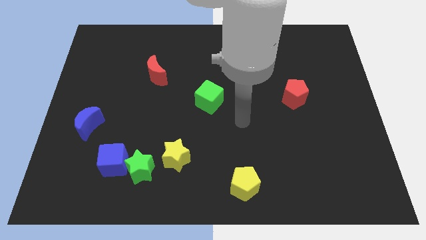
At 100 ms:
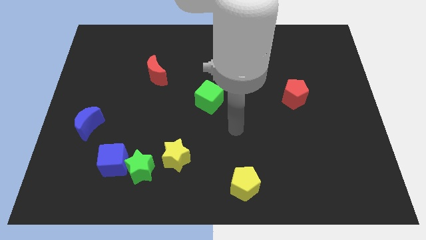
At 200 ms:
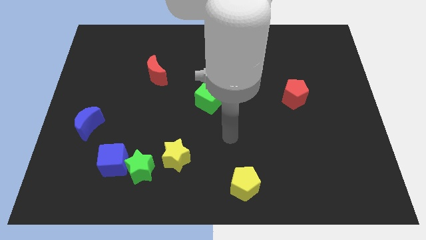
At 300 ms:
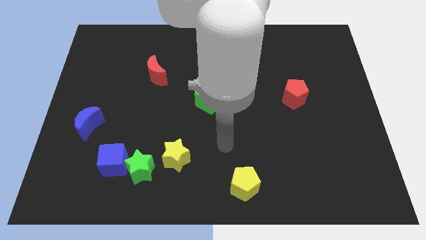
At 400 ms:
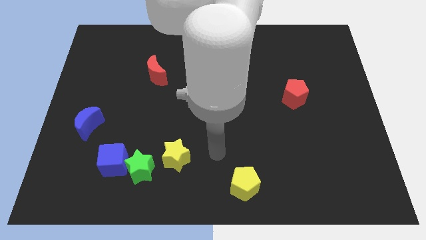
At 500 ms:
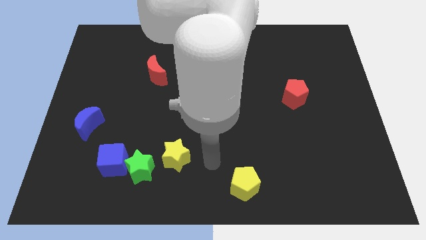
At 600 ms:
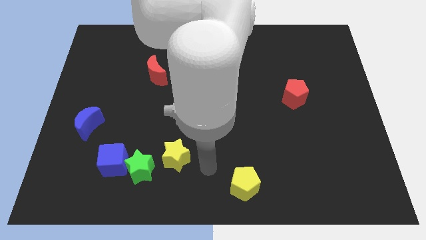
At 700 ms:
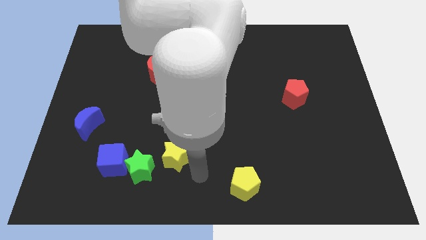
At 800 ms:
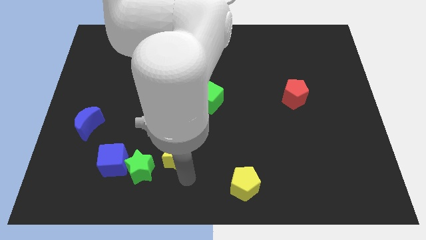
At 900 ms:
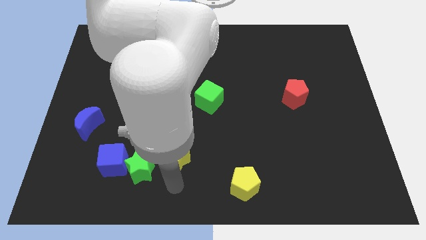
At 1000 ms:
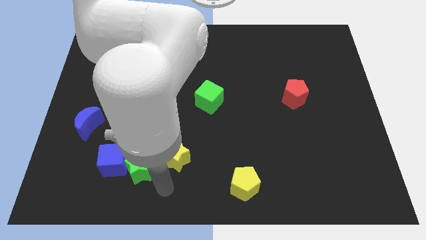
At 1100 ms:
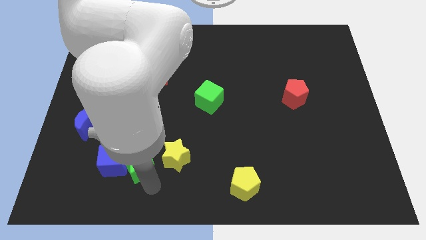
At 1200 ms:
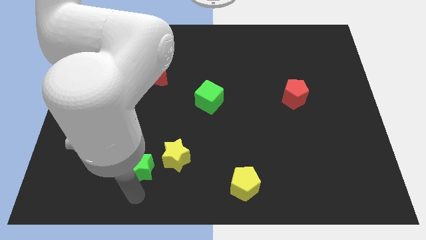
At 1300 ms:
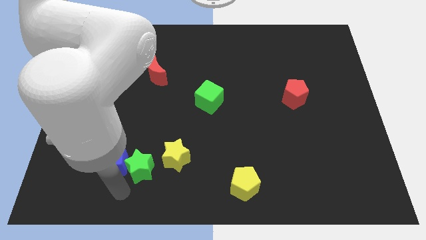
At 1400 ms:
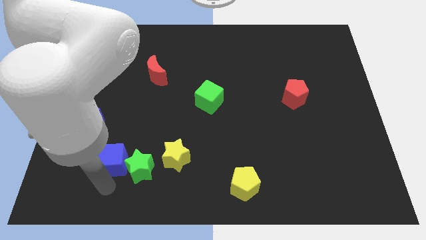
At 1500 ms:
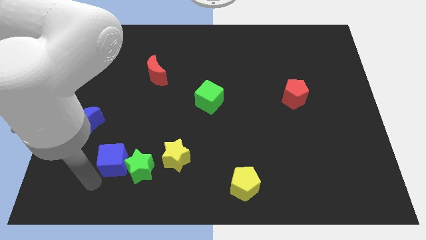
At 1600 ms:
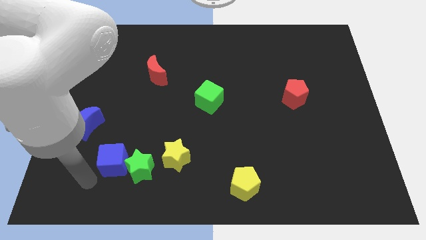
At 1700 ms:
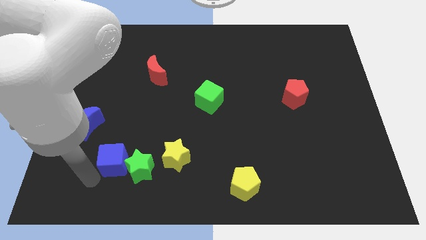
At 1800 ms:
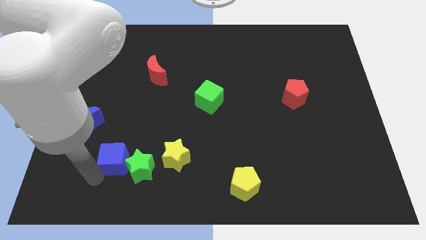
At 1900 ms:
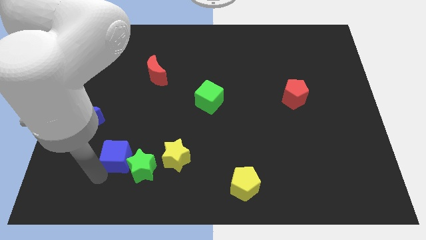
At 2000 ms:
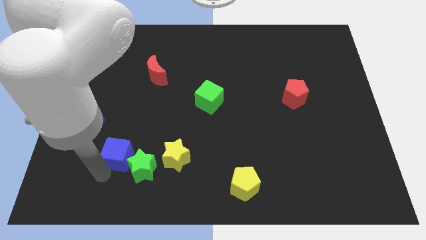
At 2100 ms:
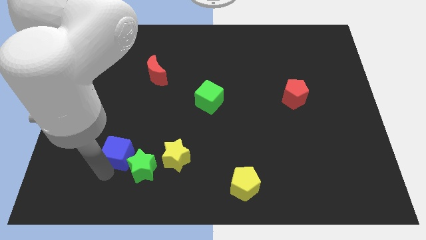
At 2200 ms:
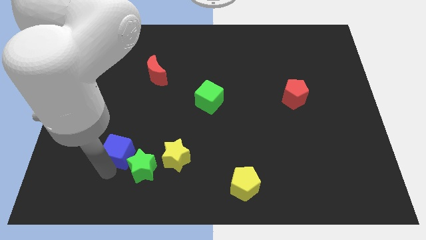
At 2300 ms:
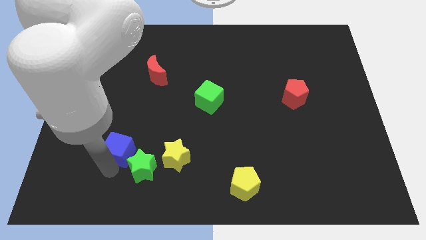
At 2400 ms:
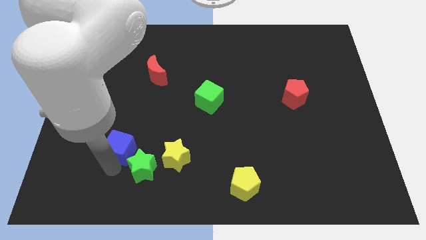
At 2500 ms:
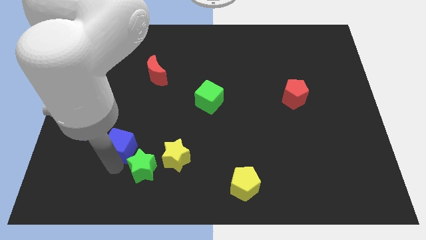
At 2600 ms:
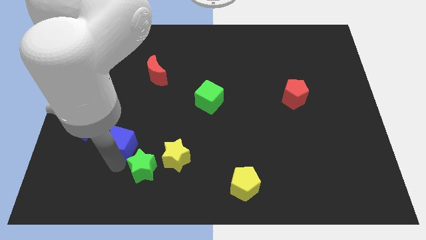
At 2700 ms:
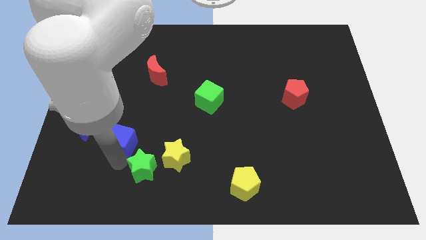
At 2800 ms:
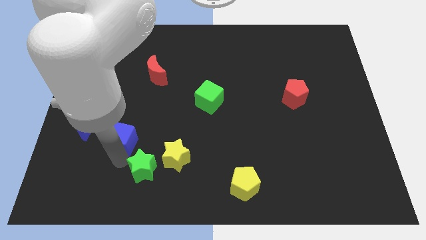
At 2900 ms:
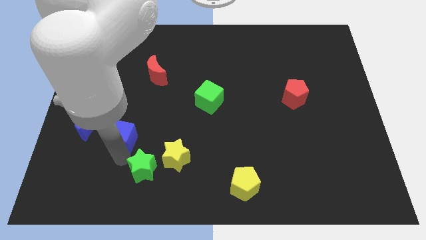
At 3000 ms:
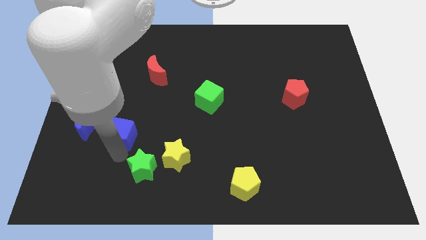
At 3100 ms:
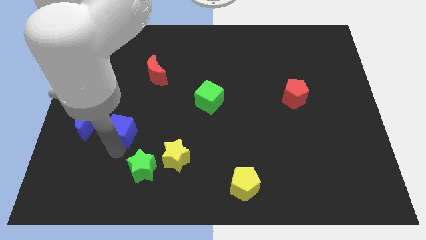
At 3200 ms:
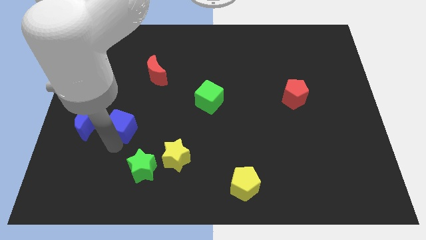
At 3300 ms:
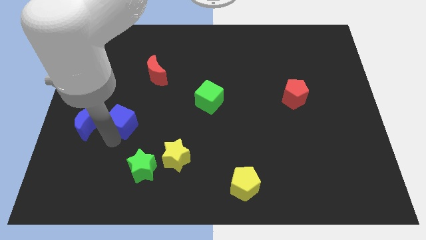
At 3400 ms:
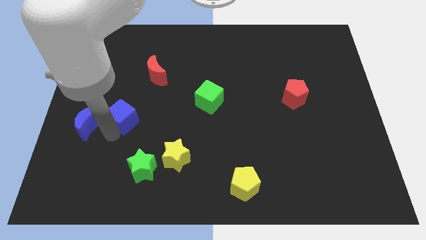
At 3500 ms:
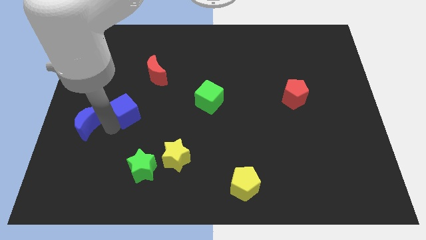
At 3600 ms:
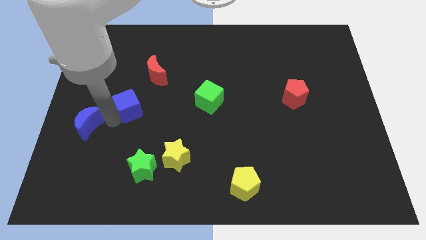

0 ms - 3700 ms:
slightly slide the blue cube diagonally up and right

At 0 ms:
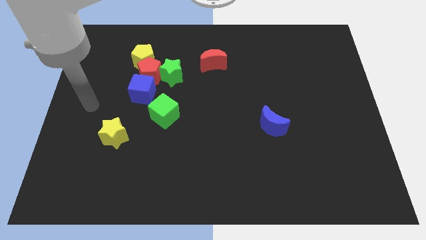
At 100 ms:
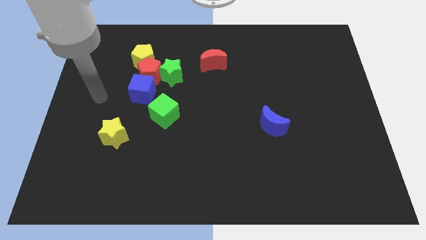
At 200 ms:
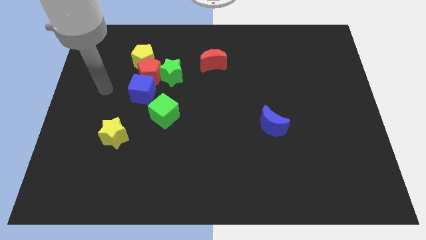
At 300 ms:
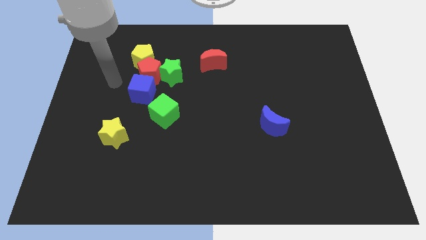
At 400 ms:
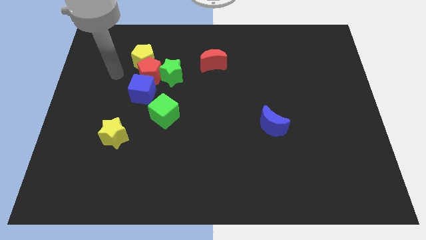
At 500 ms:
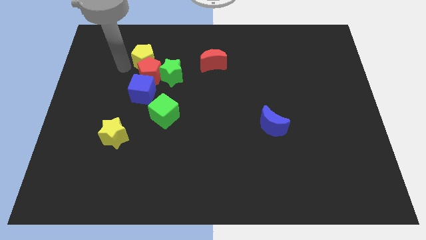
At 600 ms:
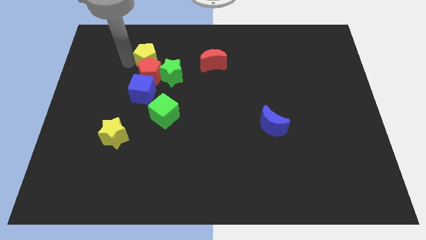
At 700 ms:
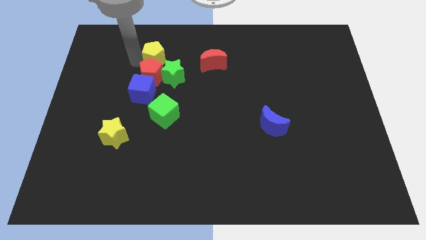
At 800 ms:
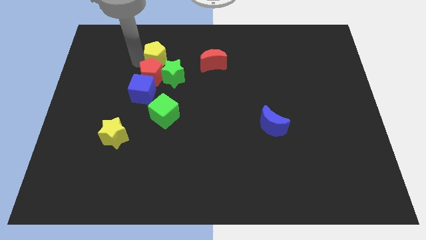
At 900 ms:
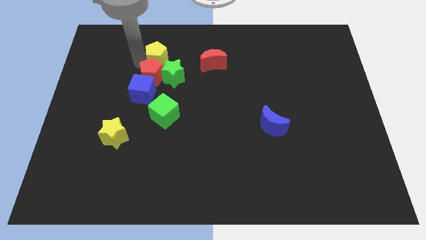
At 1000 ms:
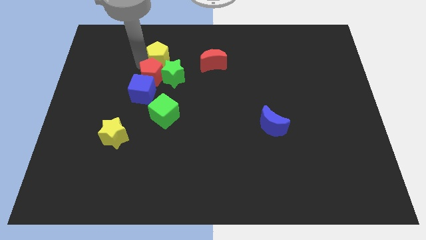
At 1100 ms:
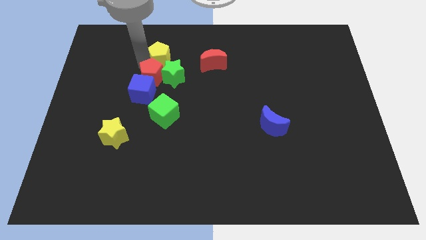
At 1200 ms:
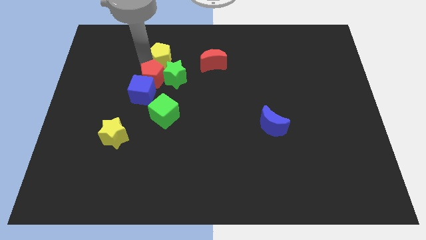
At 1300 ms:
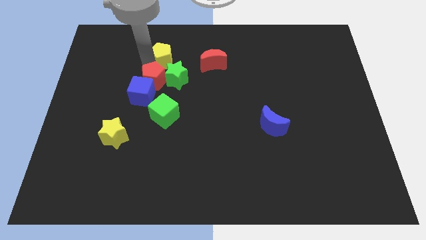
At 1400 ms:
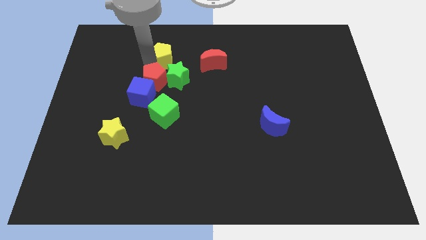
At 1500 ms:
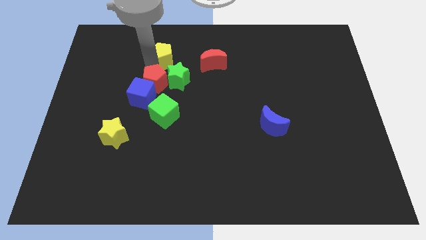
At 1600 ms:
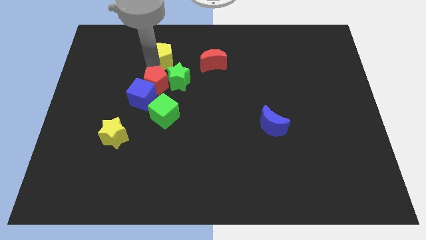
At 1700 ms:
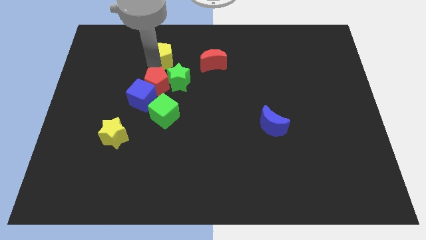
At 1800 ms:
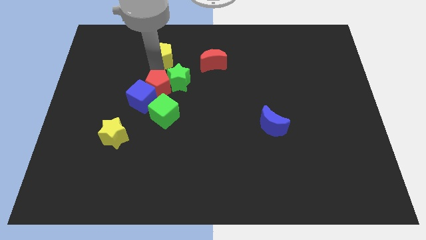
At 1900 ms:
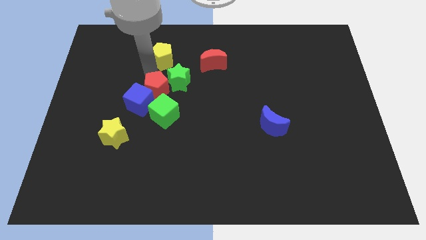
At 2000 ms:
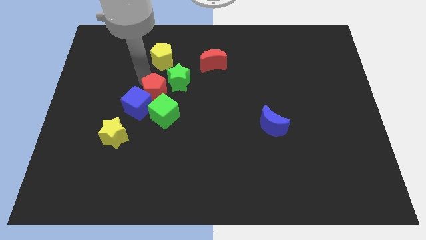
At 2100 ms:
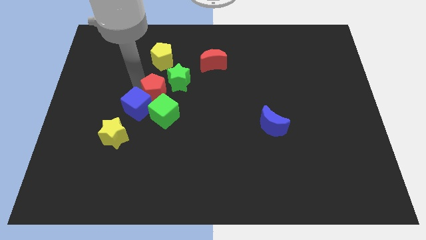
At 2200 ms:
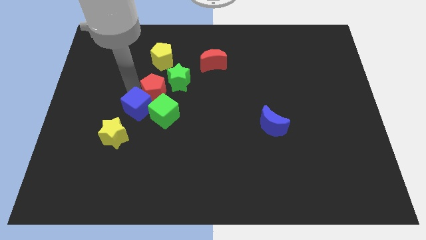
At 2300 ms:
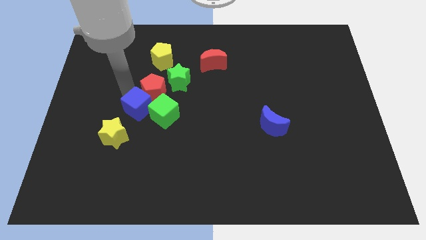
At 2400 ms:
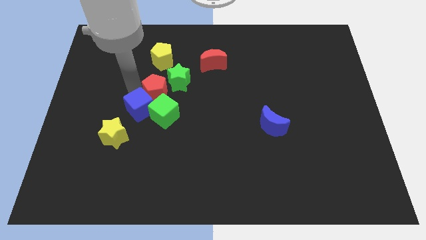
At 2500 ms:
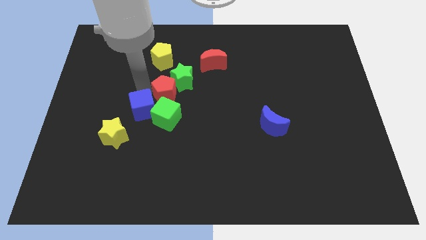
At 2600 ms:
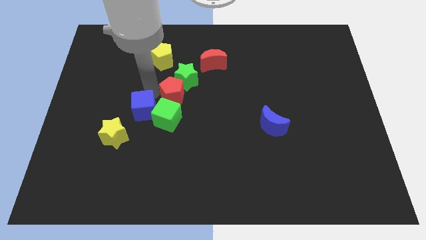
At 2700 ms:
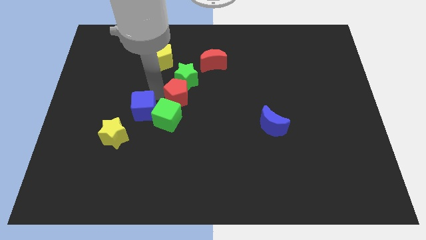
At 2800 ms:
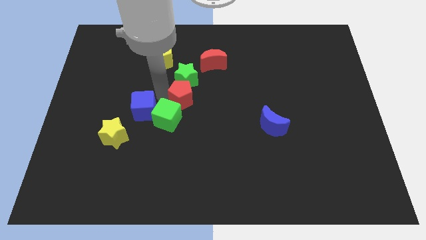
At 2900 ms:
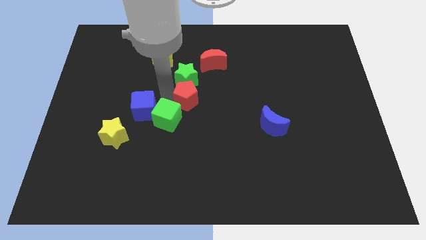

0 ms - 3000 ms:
slide the red pentagon right a little

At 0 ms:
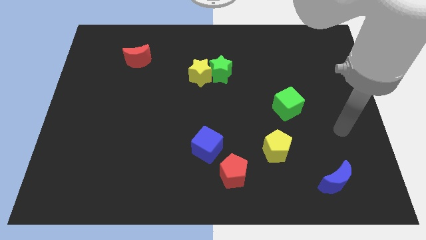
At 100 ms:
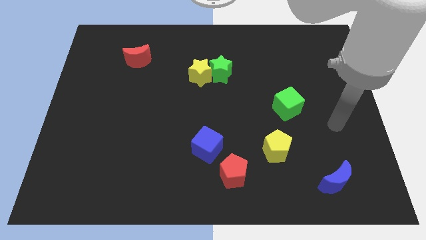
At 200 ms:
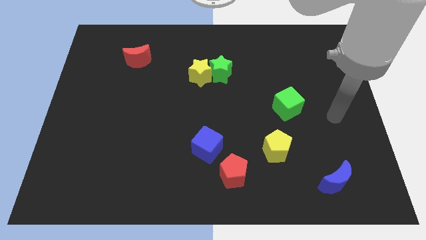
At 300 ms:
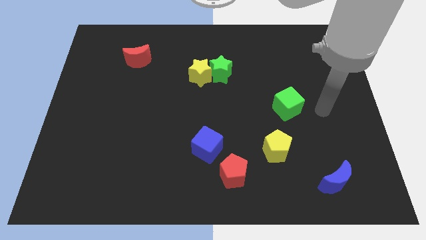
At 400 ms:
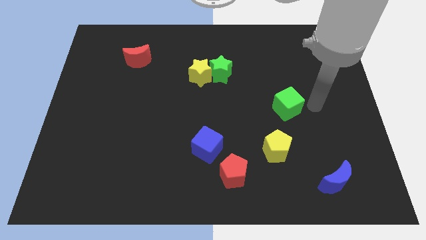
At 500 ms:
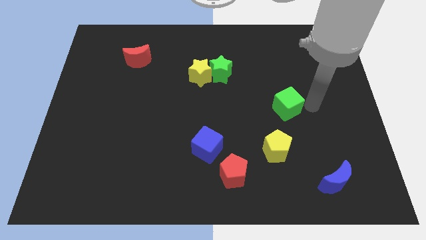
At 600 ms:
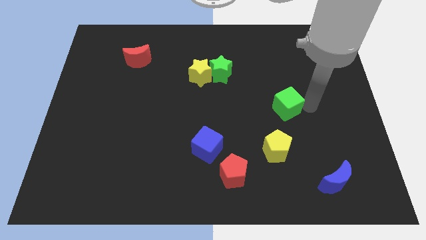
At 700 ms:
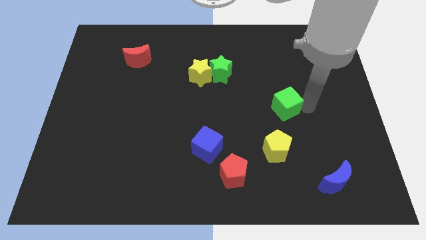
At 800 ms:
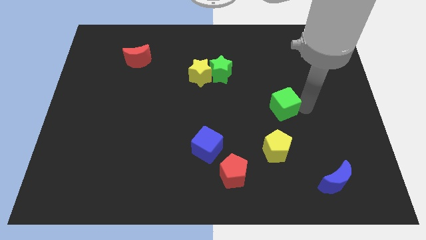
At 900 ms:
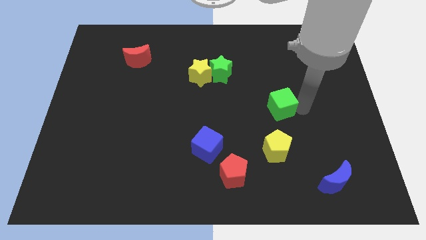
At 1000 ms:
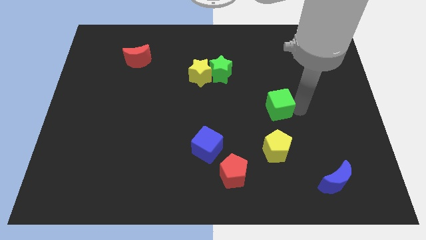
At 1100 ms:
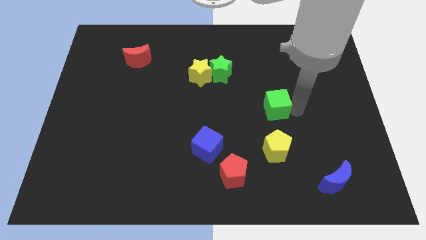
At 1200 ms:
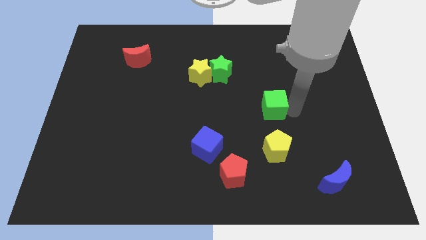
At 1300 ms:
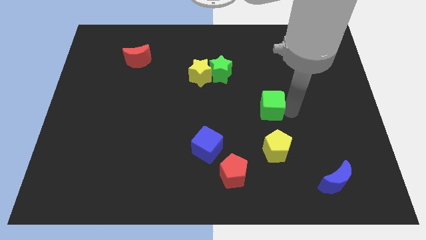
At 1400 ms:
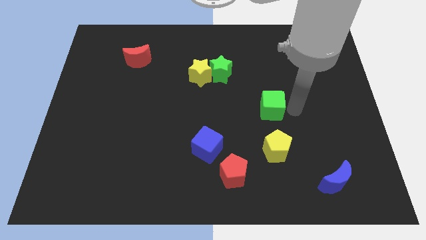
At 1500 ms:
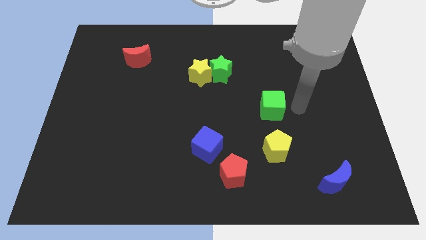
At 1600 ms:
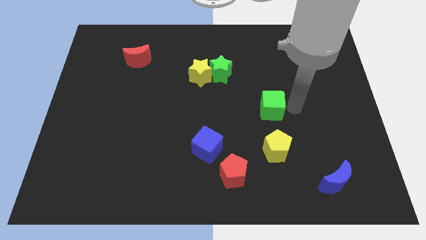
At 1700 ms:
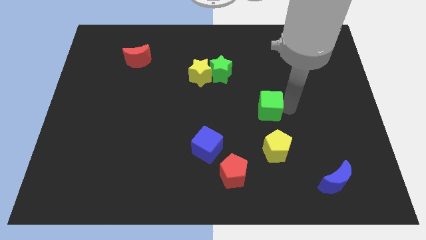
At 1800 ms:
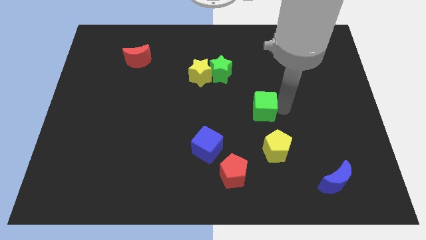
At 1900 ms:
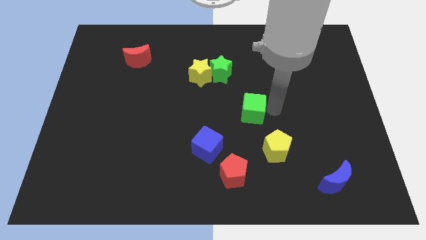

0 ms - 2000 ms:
push the green cube left a little bit
